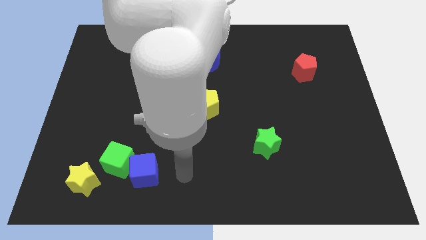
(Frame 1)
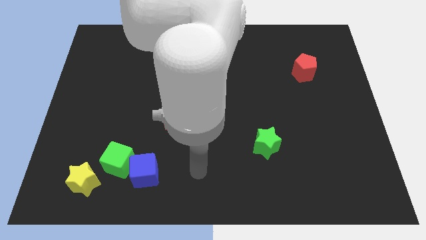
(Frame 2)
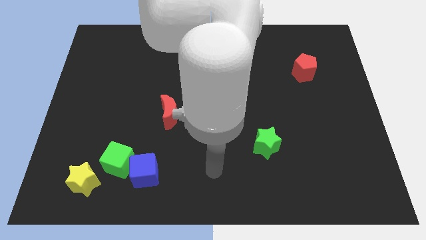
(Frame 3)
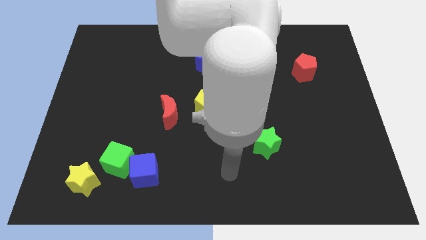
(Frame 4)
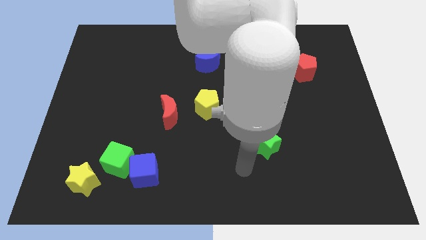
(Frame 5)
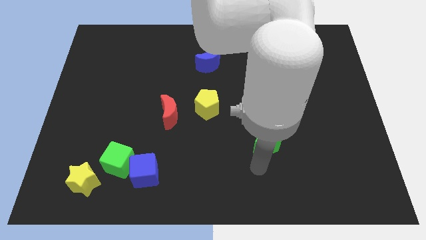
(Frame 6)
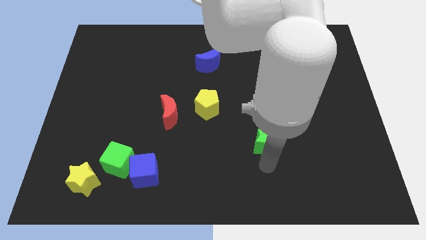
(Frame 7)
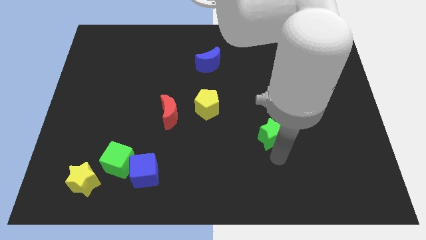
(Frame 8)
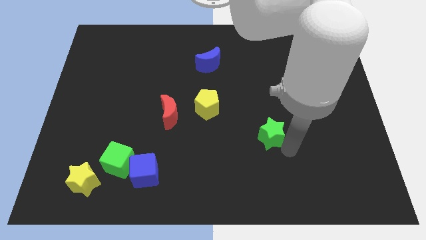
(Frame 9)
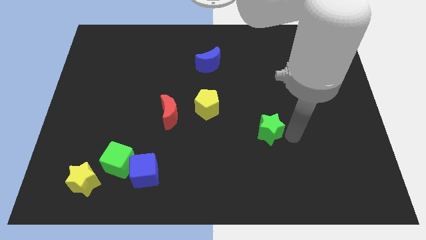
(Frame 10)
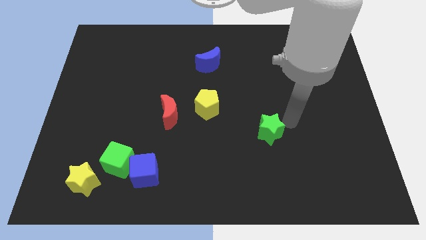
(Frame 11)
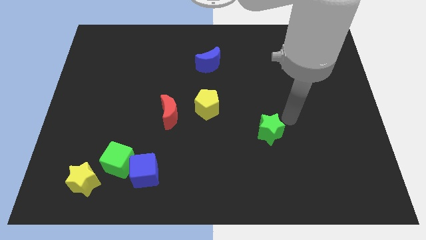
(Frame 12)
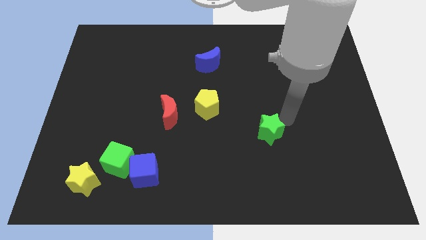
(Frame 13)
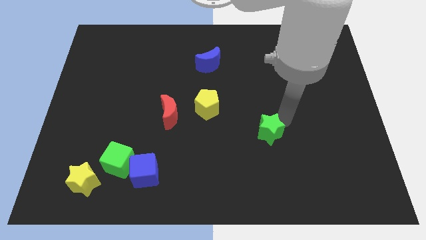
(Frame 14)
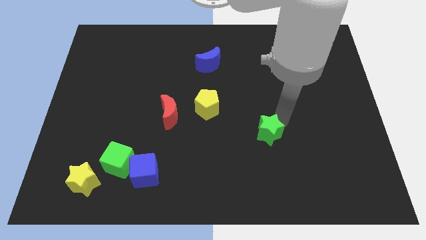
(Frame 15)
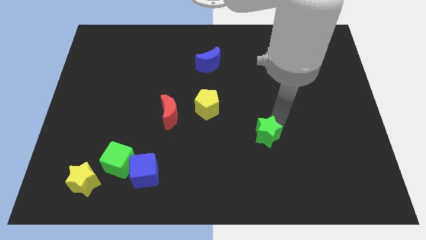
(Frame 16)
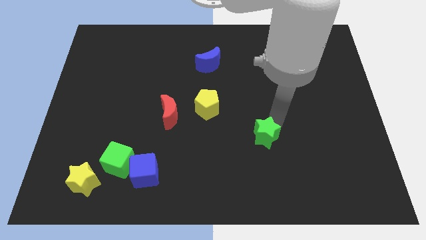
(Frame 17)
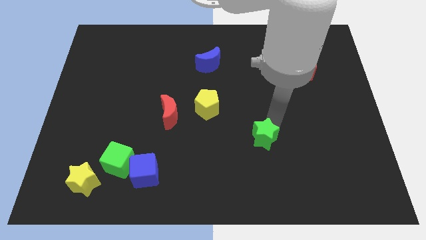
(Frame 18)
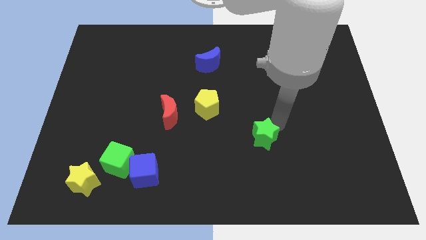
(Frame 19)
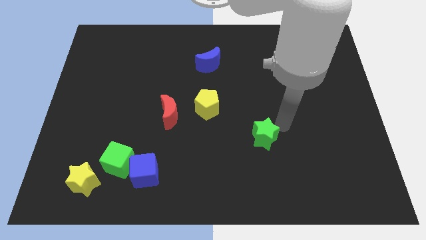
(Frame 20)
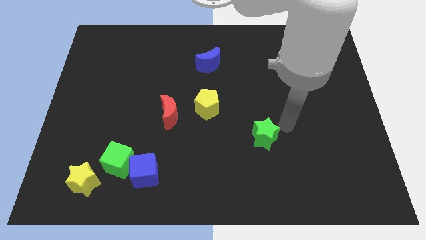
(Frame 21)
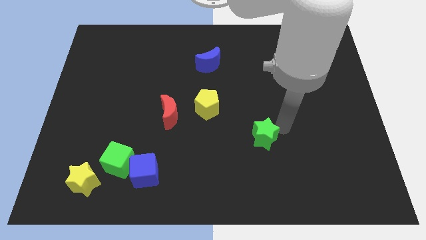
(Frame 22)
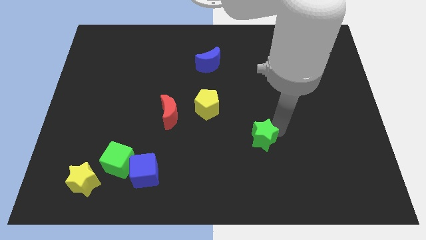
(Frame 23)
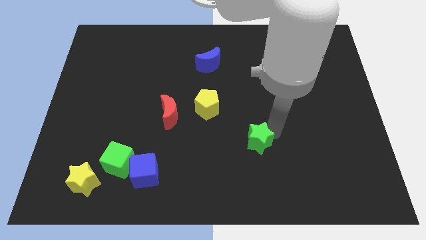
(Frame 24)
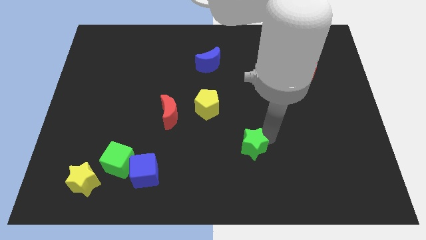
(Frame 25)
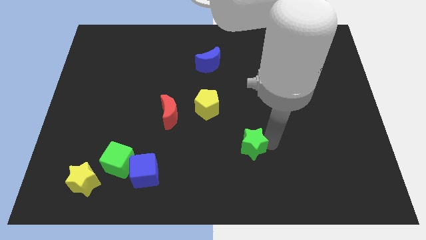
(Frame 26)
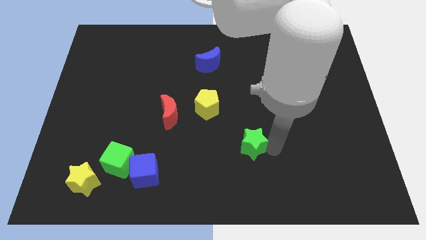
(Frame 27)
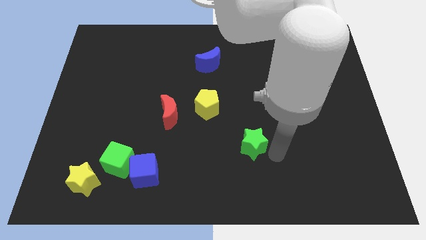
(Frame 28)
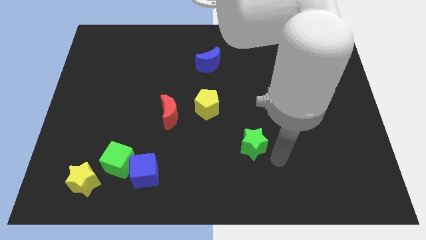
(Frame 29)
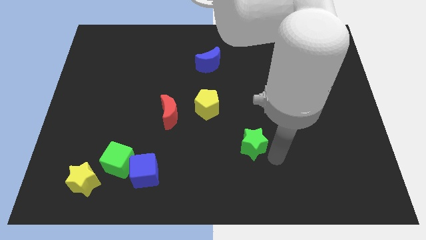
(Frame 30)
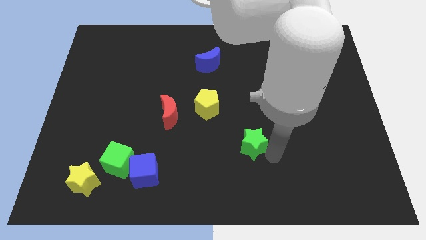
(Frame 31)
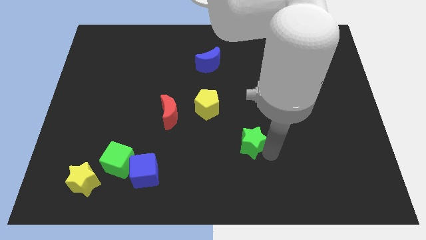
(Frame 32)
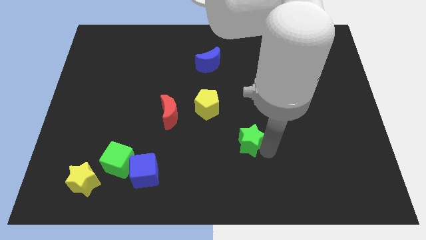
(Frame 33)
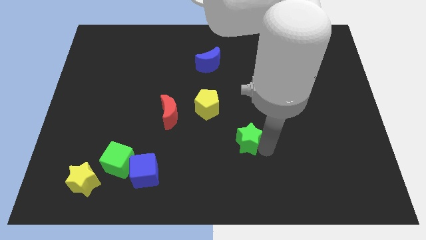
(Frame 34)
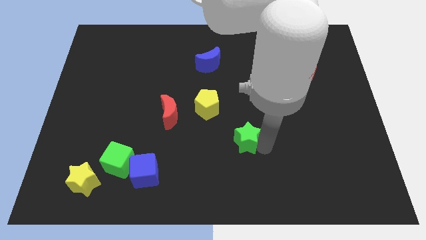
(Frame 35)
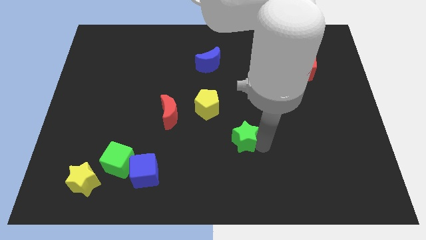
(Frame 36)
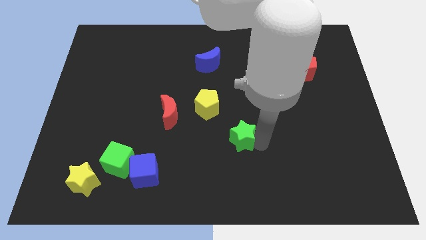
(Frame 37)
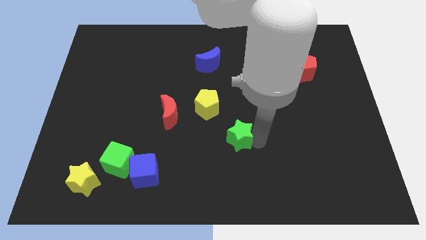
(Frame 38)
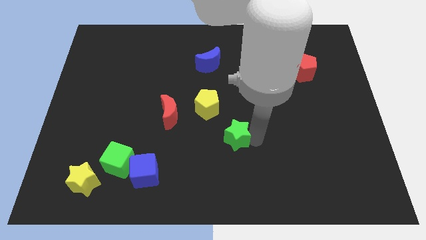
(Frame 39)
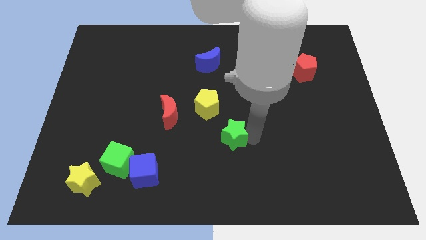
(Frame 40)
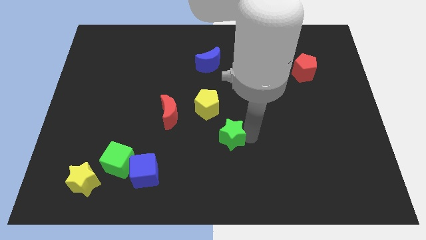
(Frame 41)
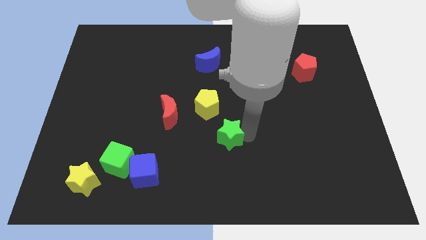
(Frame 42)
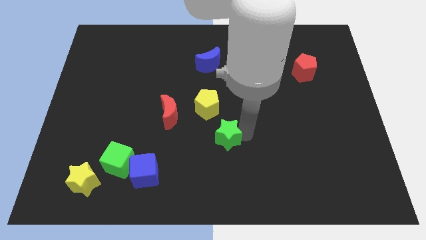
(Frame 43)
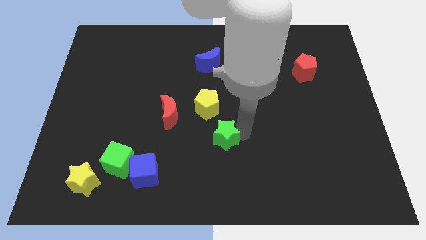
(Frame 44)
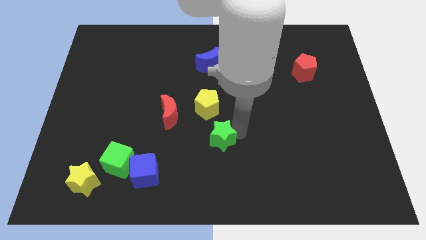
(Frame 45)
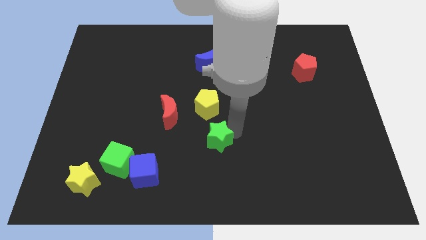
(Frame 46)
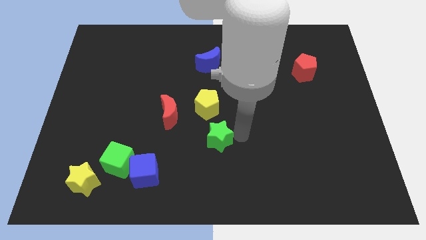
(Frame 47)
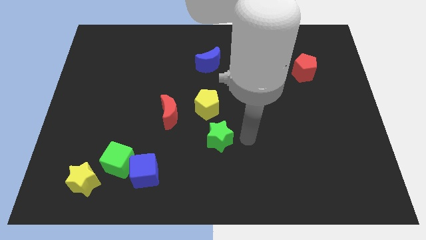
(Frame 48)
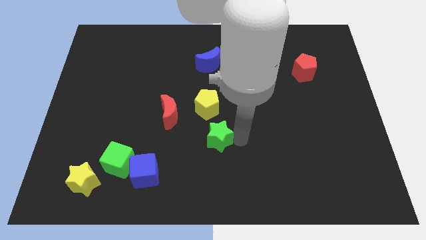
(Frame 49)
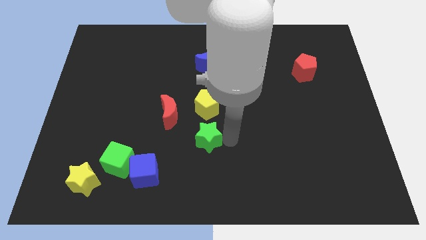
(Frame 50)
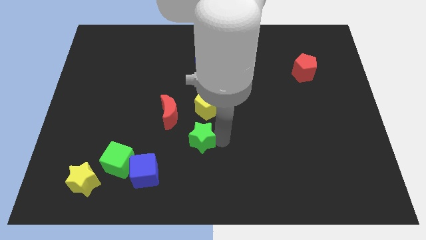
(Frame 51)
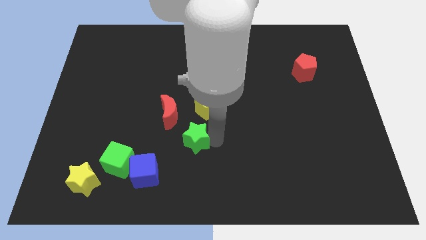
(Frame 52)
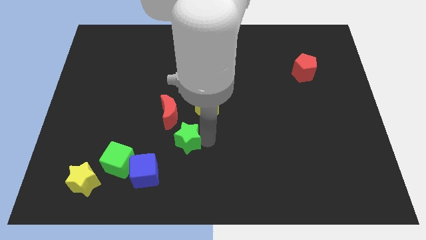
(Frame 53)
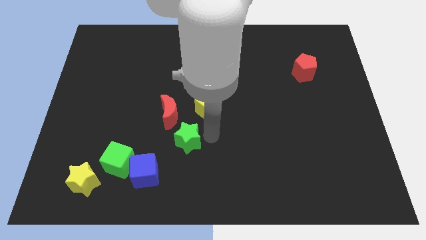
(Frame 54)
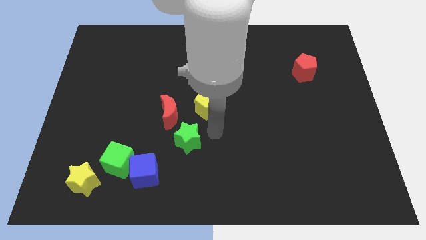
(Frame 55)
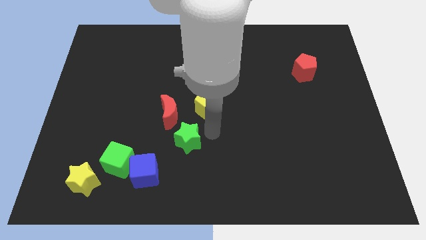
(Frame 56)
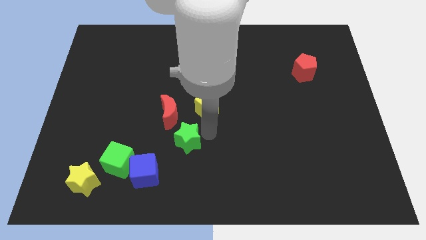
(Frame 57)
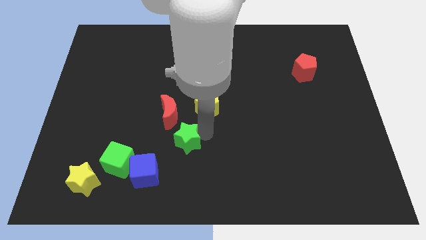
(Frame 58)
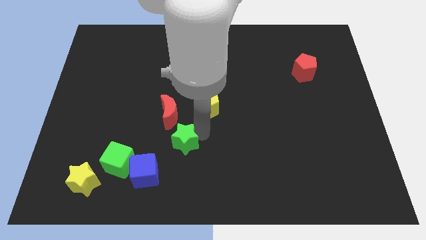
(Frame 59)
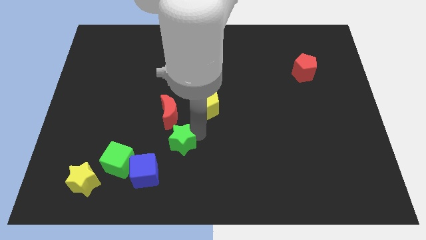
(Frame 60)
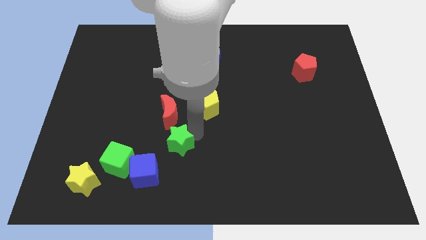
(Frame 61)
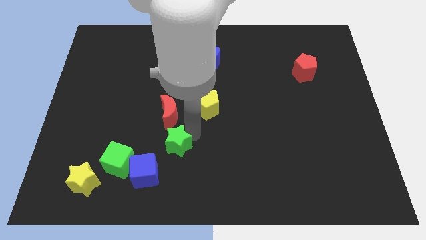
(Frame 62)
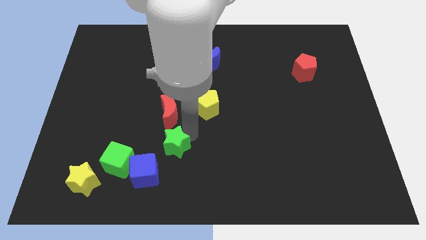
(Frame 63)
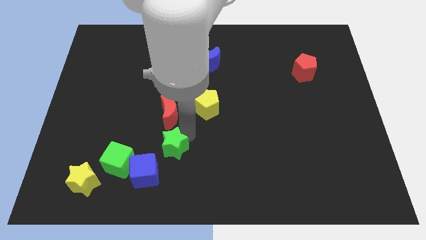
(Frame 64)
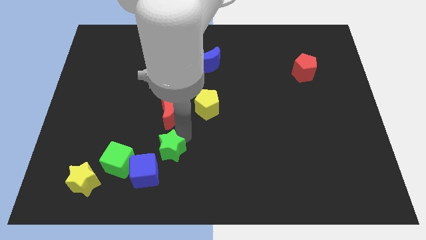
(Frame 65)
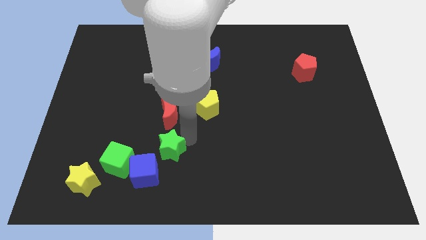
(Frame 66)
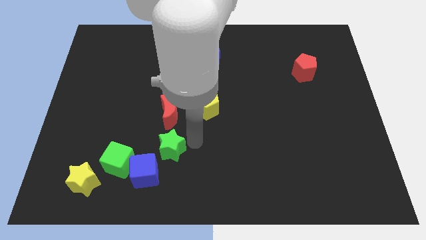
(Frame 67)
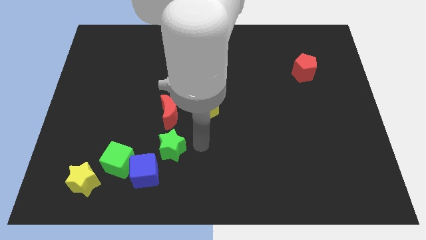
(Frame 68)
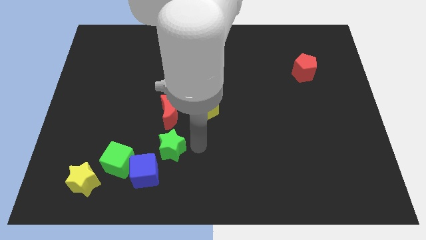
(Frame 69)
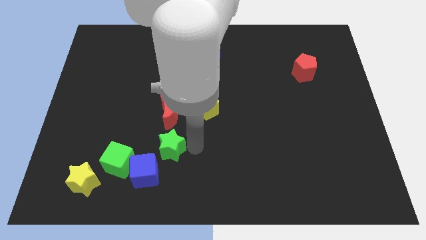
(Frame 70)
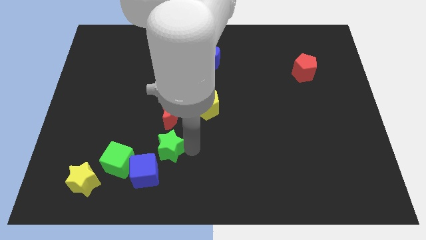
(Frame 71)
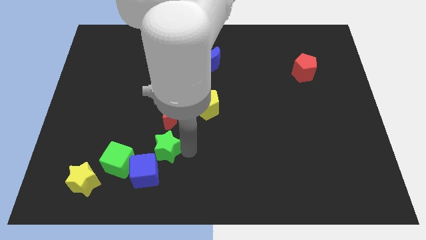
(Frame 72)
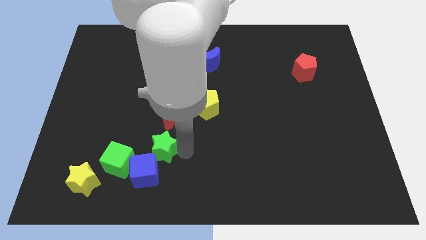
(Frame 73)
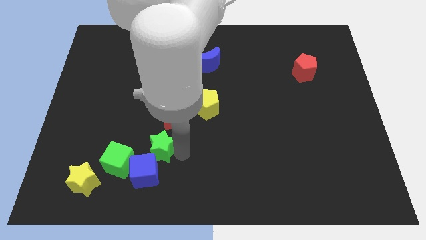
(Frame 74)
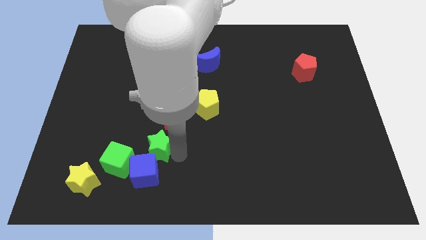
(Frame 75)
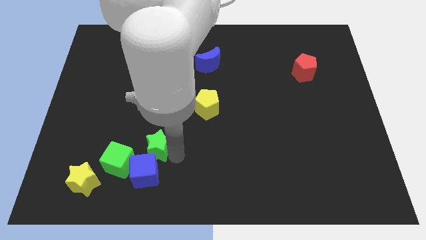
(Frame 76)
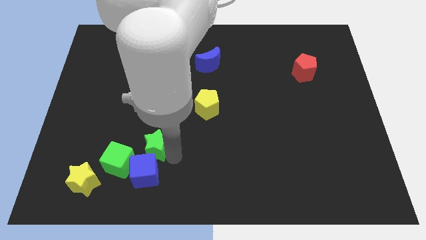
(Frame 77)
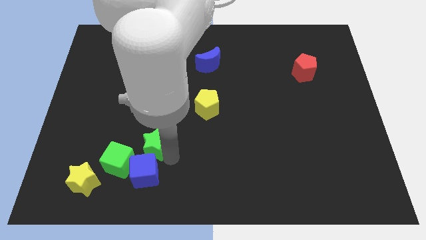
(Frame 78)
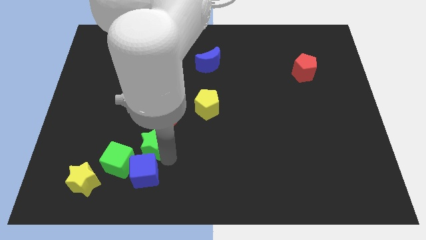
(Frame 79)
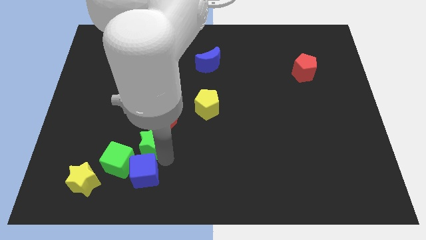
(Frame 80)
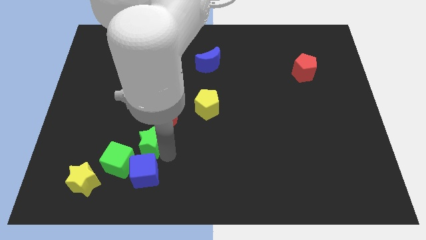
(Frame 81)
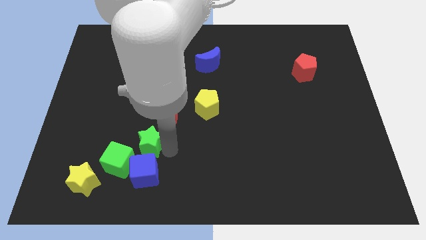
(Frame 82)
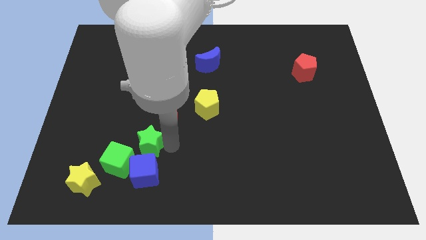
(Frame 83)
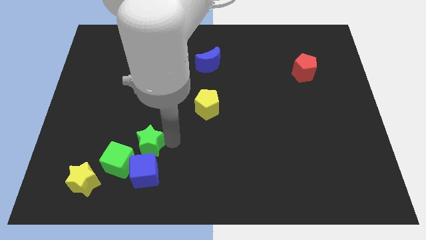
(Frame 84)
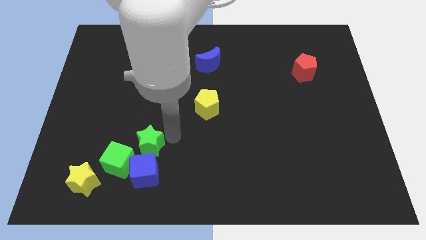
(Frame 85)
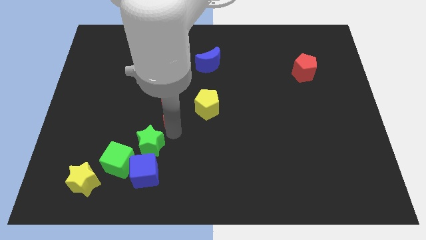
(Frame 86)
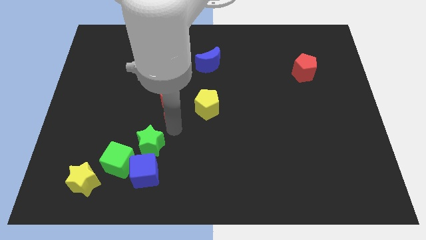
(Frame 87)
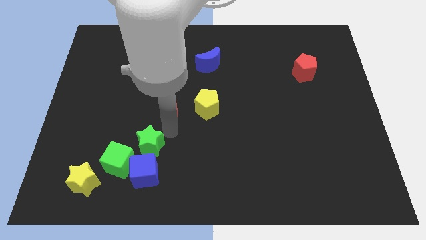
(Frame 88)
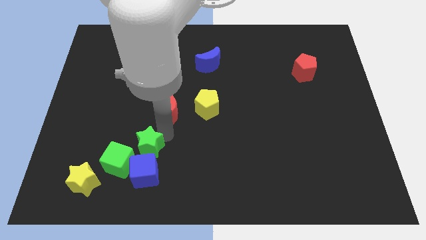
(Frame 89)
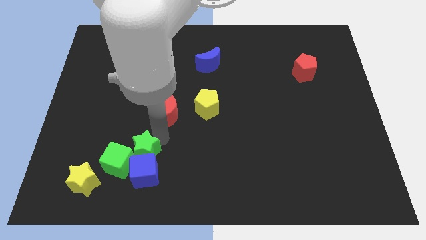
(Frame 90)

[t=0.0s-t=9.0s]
slide the green star to the green cube
